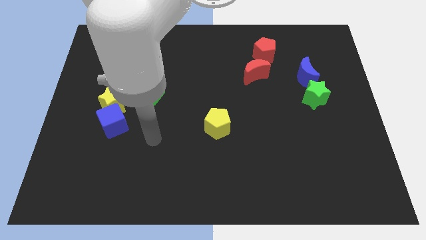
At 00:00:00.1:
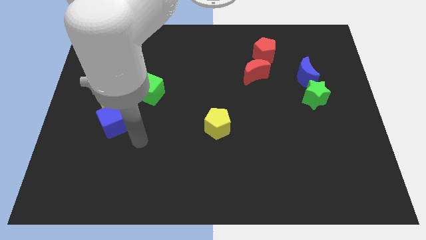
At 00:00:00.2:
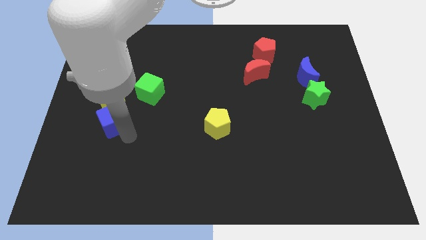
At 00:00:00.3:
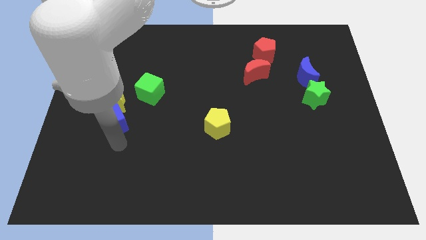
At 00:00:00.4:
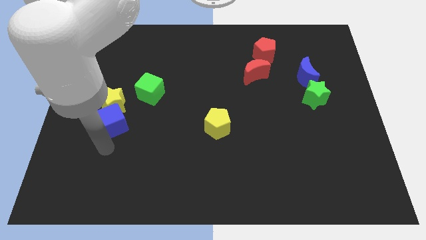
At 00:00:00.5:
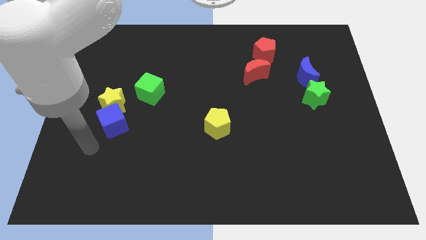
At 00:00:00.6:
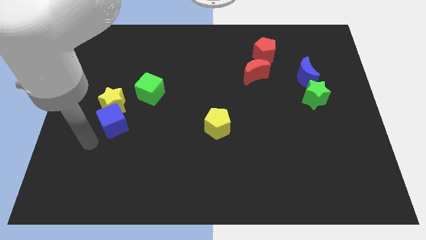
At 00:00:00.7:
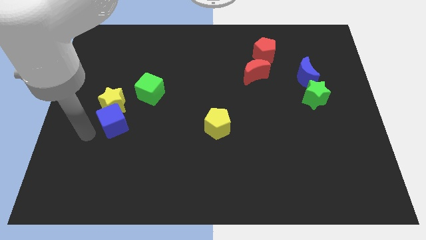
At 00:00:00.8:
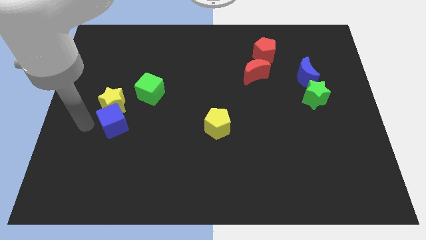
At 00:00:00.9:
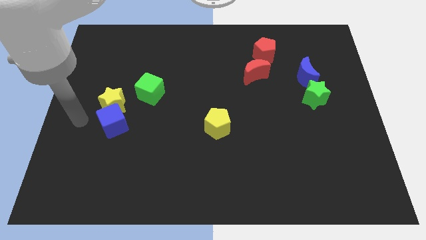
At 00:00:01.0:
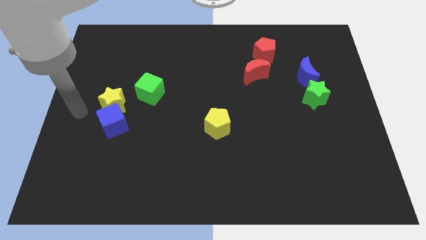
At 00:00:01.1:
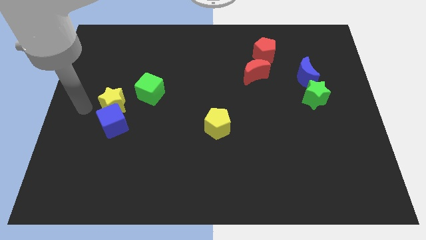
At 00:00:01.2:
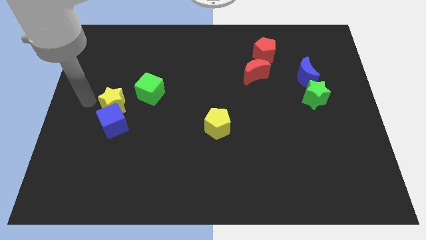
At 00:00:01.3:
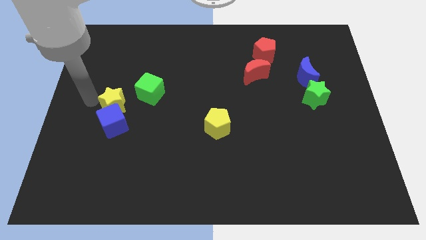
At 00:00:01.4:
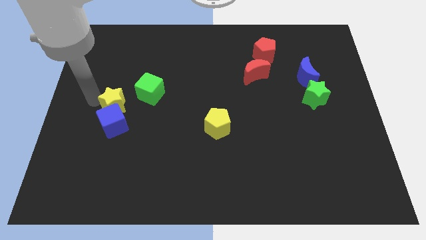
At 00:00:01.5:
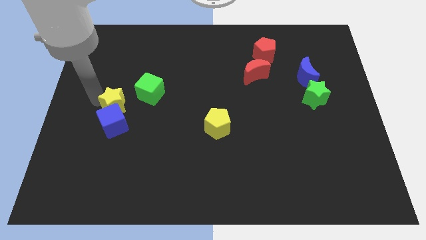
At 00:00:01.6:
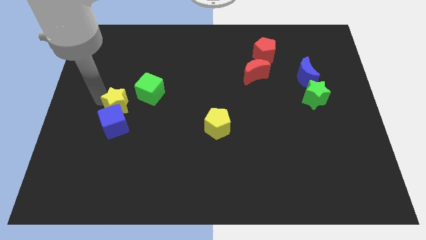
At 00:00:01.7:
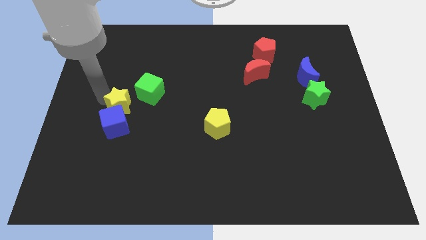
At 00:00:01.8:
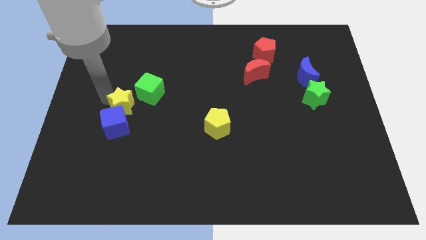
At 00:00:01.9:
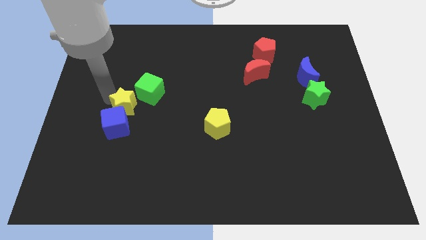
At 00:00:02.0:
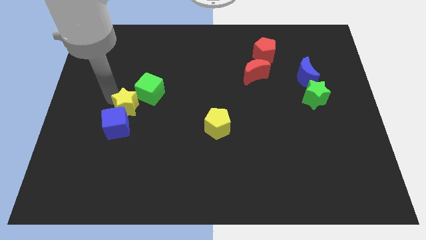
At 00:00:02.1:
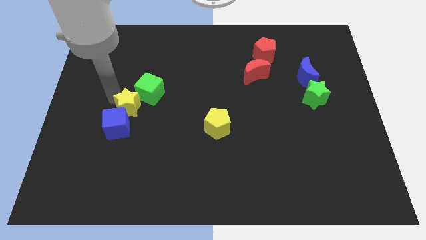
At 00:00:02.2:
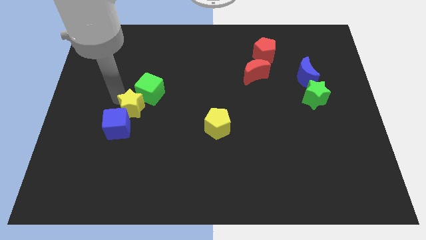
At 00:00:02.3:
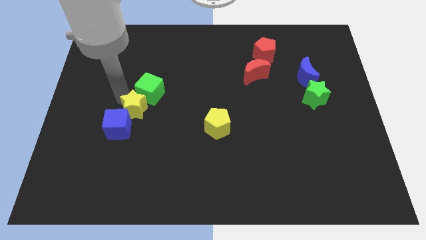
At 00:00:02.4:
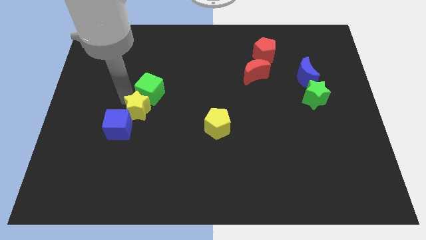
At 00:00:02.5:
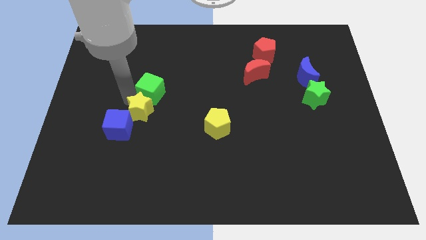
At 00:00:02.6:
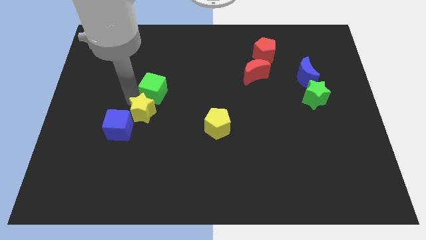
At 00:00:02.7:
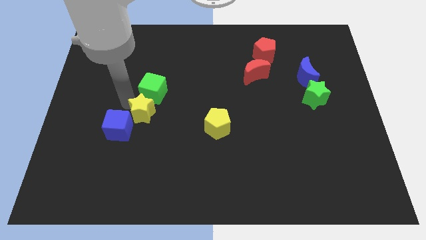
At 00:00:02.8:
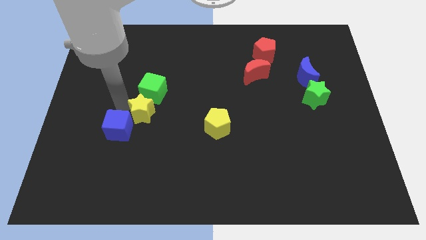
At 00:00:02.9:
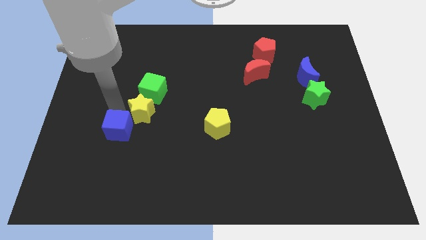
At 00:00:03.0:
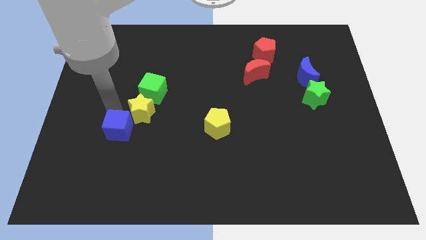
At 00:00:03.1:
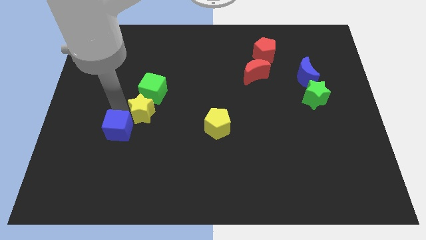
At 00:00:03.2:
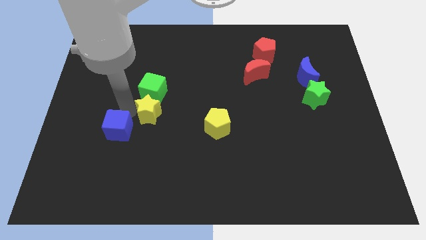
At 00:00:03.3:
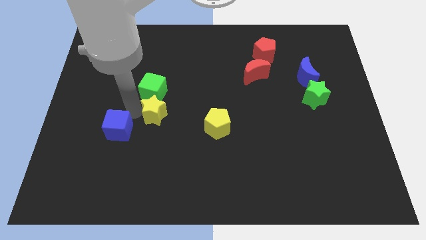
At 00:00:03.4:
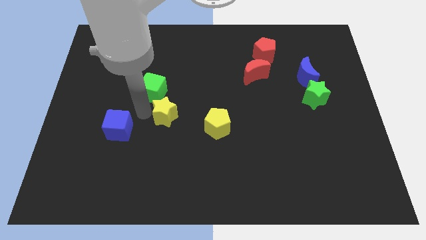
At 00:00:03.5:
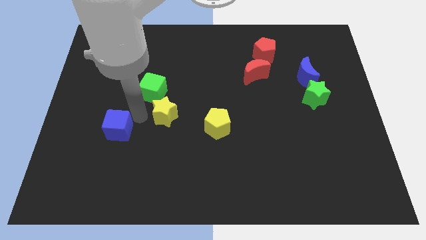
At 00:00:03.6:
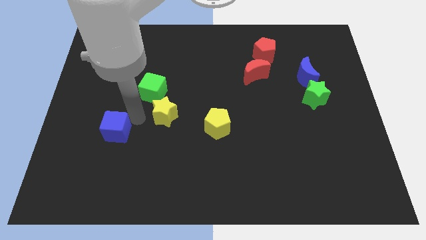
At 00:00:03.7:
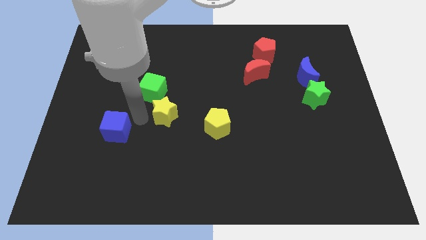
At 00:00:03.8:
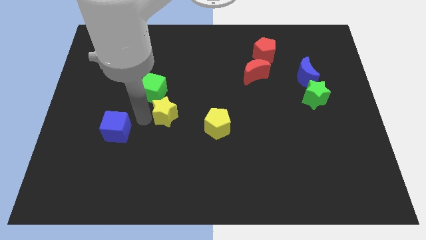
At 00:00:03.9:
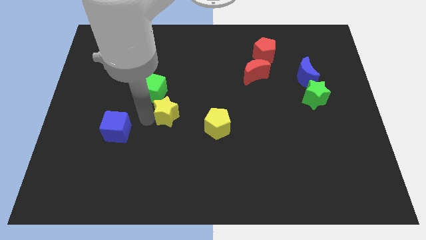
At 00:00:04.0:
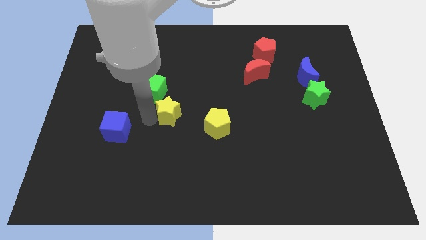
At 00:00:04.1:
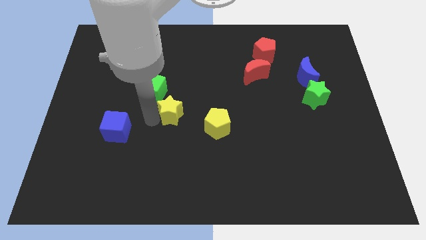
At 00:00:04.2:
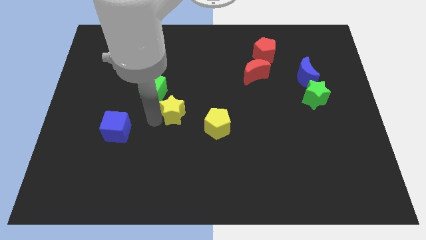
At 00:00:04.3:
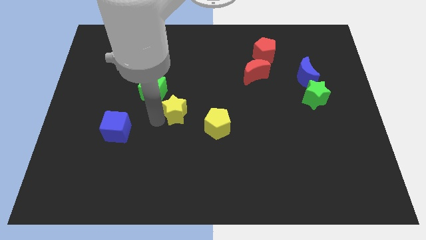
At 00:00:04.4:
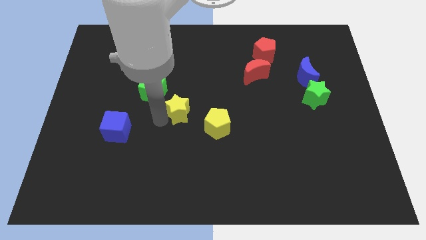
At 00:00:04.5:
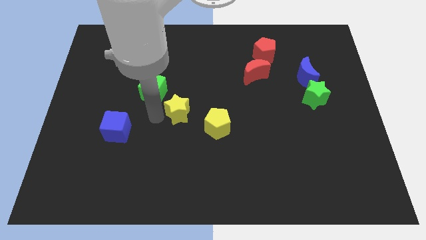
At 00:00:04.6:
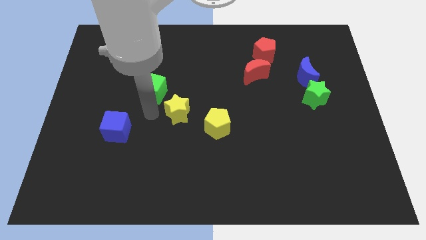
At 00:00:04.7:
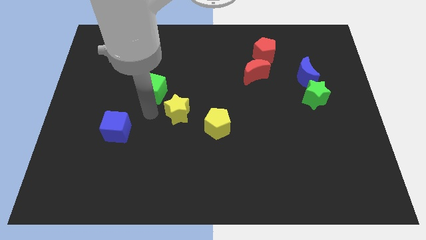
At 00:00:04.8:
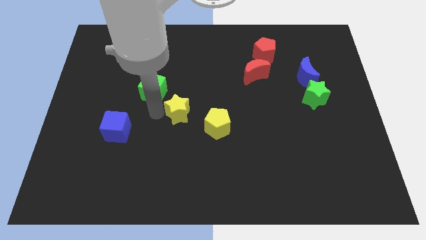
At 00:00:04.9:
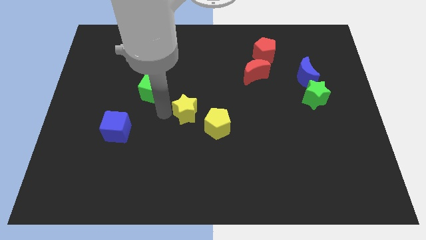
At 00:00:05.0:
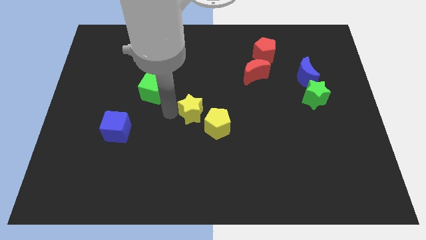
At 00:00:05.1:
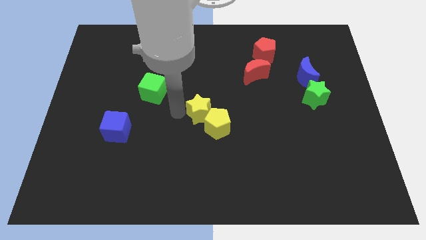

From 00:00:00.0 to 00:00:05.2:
push the yellow star right

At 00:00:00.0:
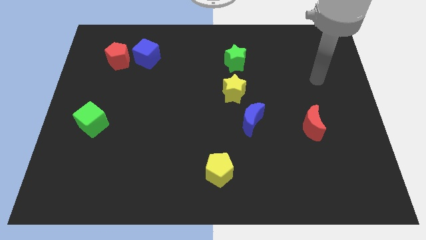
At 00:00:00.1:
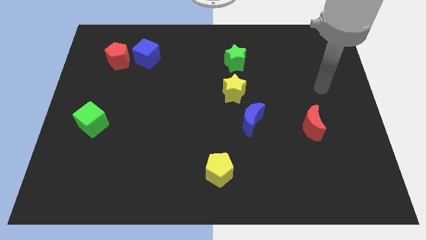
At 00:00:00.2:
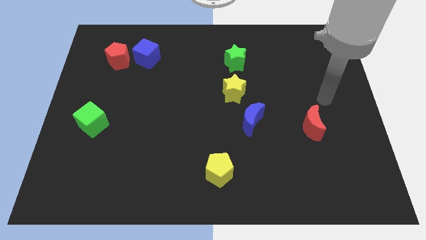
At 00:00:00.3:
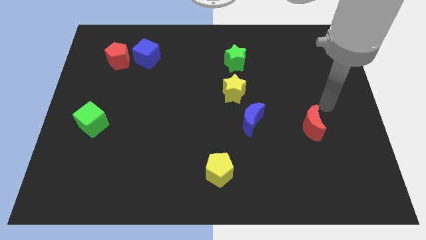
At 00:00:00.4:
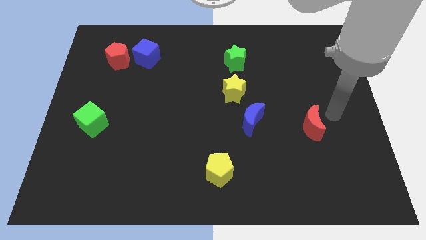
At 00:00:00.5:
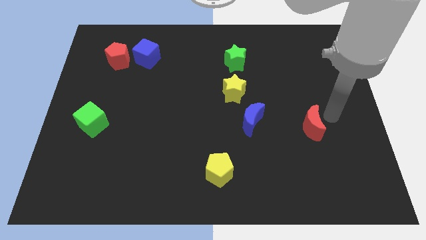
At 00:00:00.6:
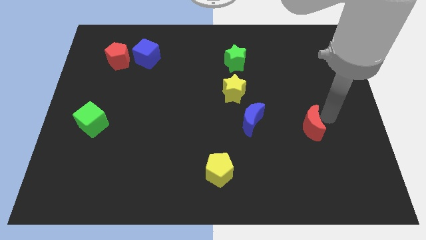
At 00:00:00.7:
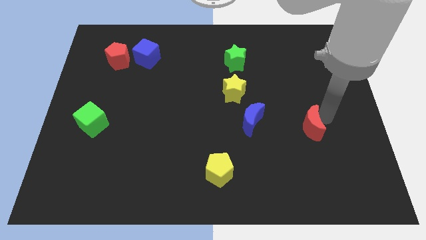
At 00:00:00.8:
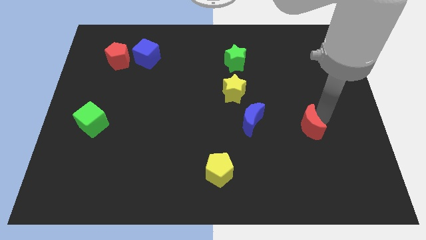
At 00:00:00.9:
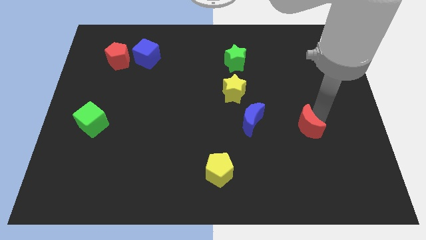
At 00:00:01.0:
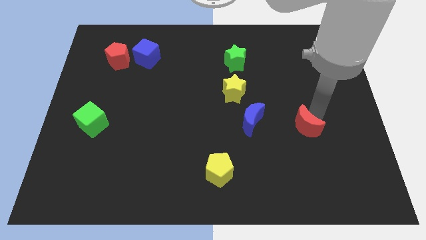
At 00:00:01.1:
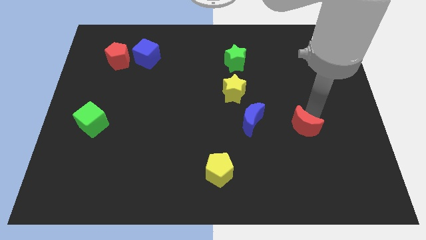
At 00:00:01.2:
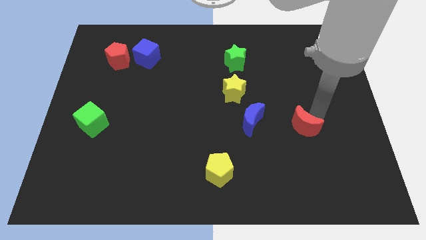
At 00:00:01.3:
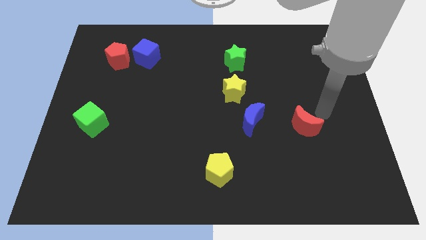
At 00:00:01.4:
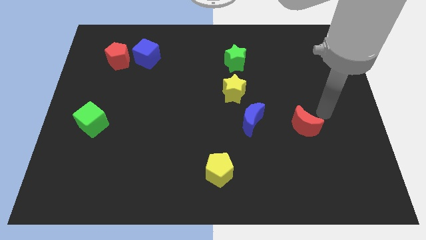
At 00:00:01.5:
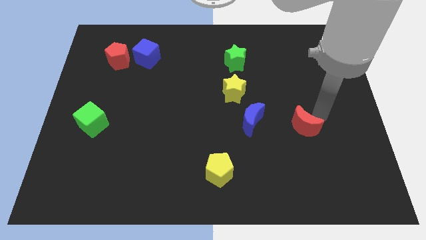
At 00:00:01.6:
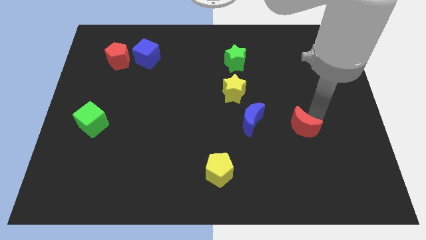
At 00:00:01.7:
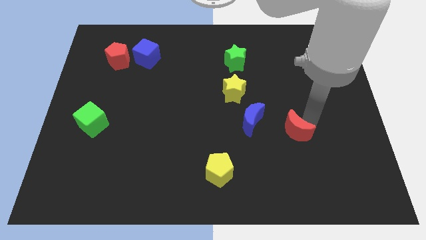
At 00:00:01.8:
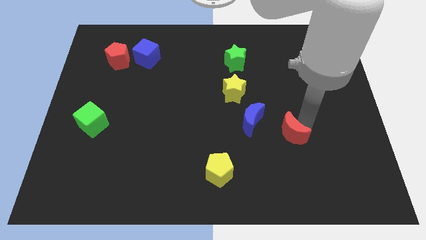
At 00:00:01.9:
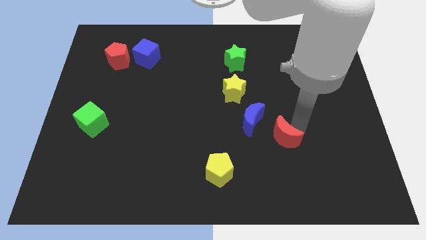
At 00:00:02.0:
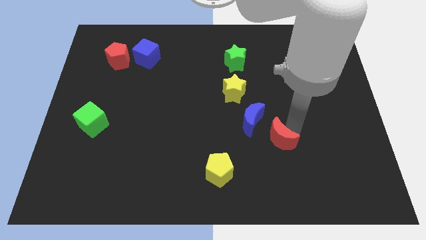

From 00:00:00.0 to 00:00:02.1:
push the red moon a little bit down and left

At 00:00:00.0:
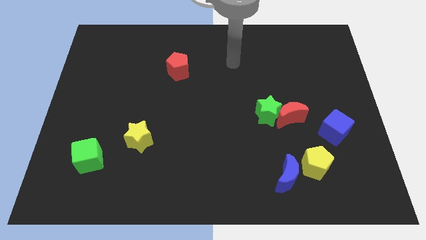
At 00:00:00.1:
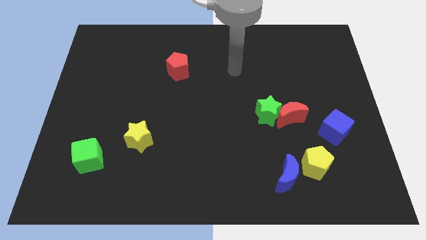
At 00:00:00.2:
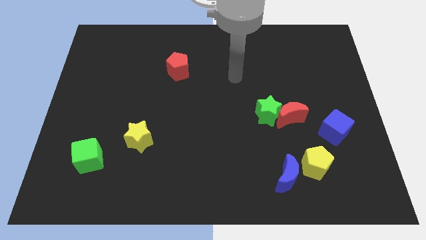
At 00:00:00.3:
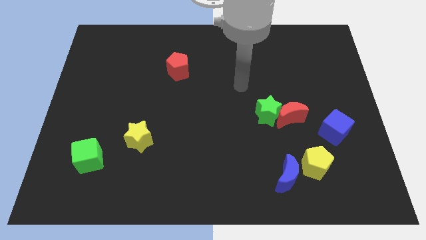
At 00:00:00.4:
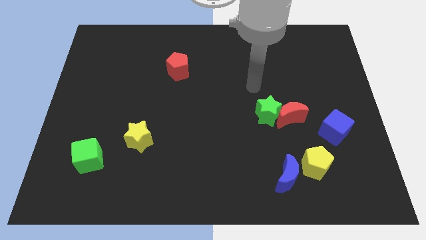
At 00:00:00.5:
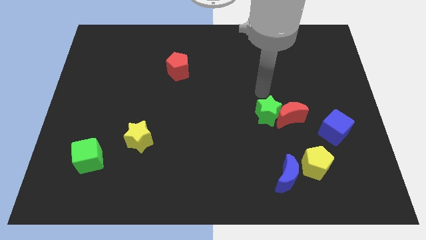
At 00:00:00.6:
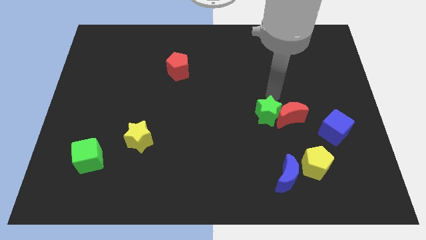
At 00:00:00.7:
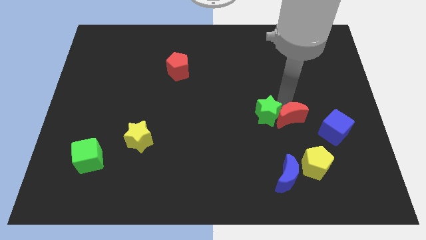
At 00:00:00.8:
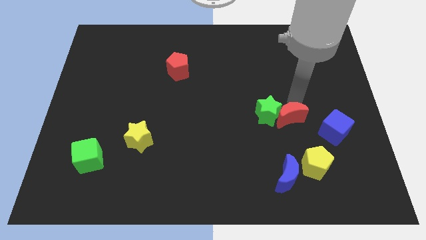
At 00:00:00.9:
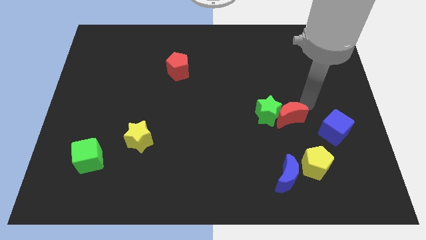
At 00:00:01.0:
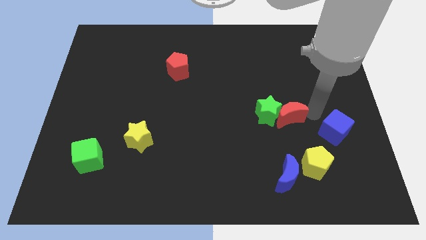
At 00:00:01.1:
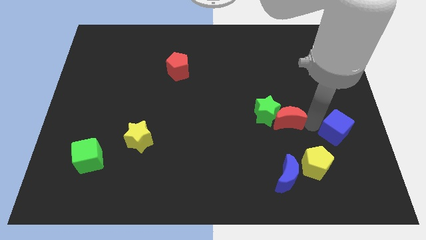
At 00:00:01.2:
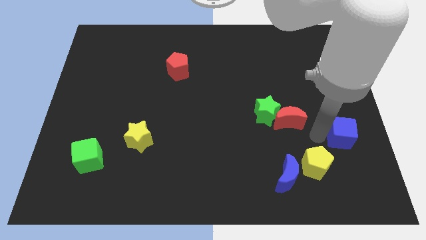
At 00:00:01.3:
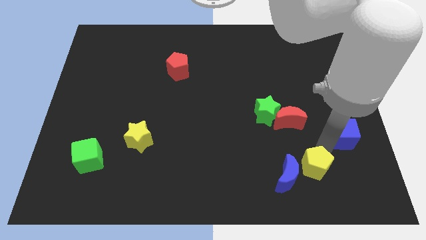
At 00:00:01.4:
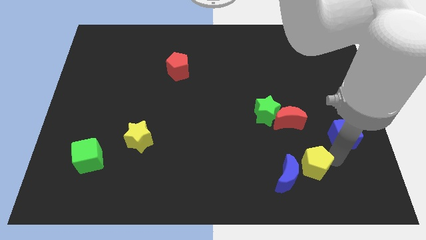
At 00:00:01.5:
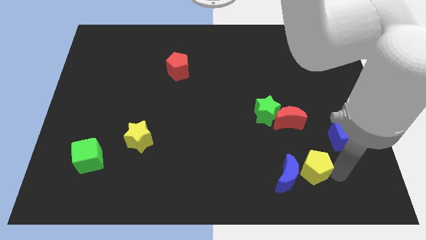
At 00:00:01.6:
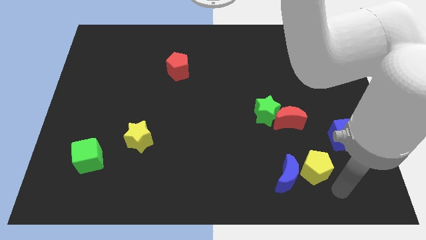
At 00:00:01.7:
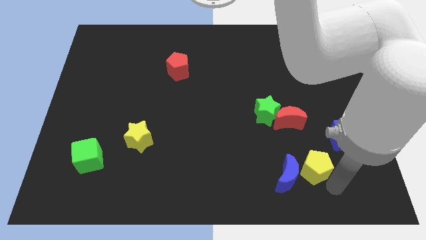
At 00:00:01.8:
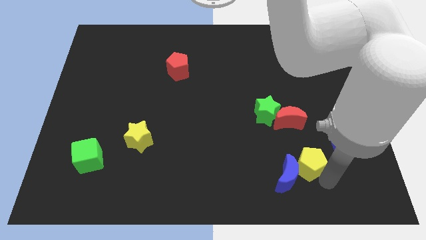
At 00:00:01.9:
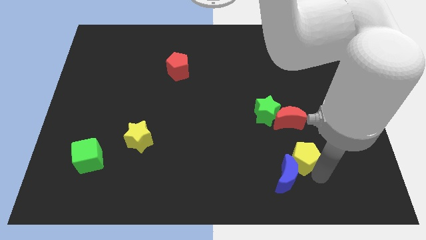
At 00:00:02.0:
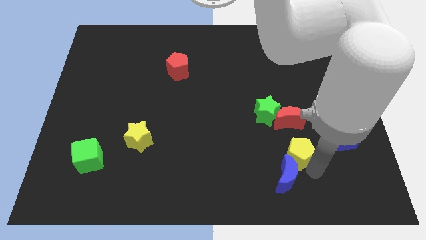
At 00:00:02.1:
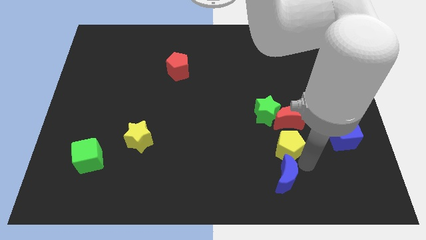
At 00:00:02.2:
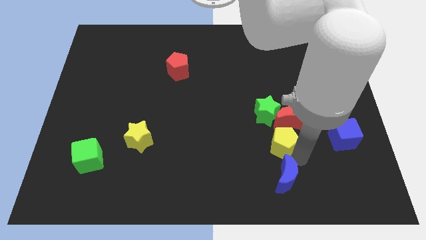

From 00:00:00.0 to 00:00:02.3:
move the yellow pentagon upwards and then left a little
